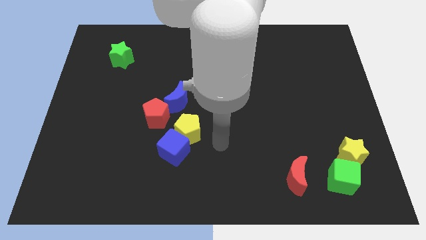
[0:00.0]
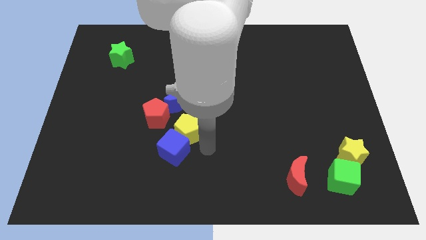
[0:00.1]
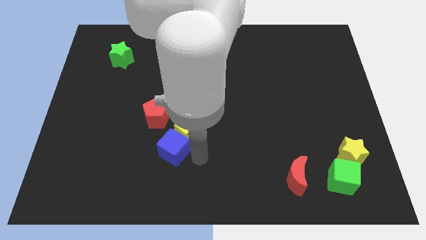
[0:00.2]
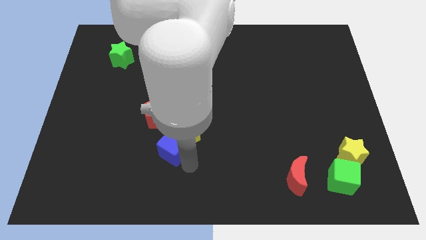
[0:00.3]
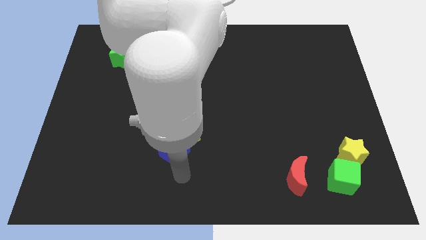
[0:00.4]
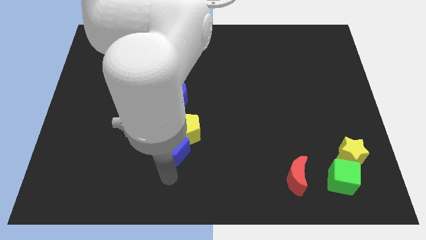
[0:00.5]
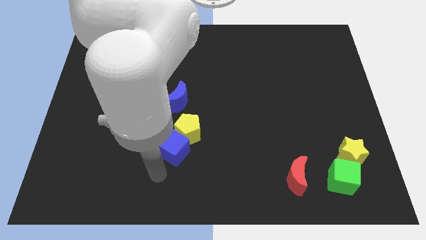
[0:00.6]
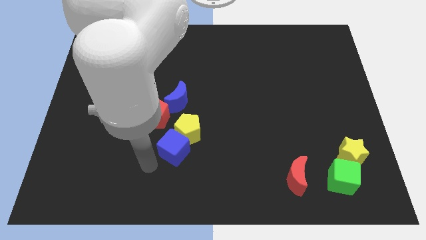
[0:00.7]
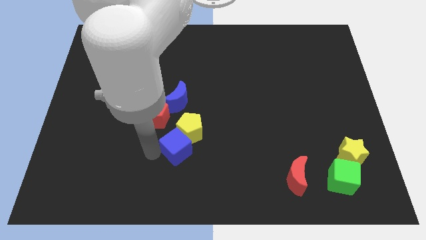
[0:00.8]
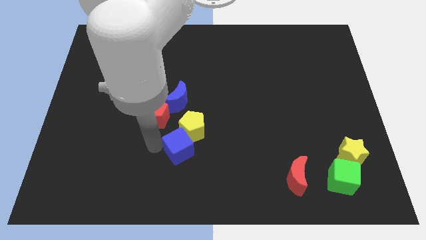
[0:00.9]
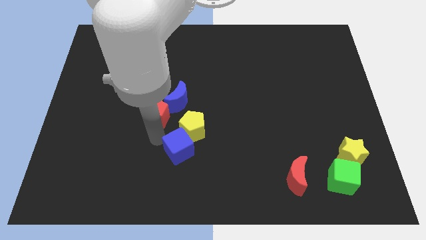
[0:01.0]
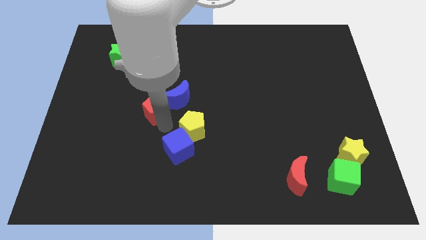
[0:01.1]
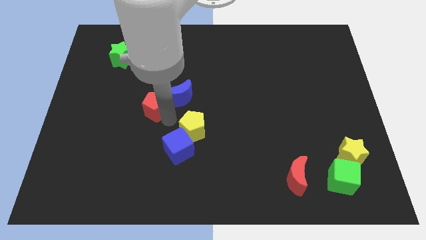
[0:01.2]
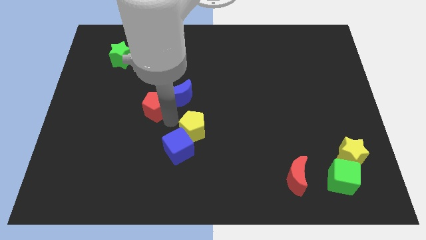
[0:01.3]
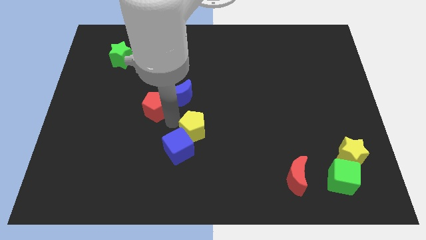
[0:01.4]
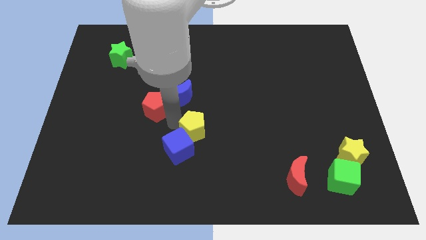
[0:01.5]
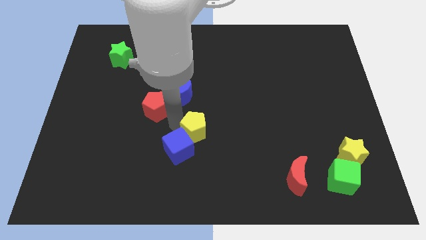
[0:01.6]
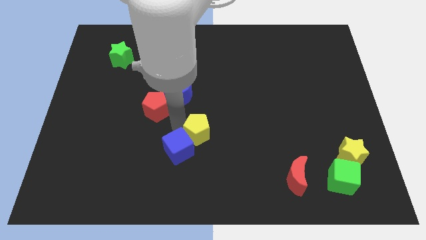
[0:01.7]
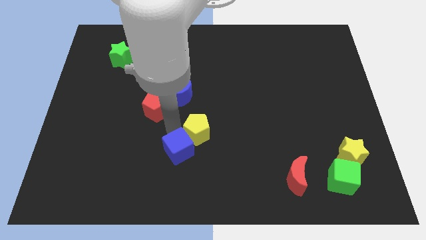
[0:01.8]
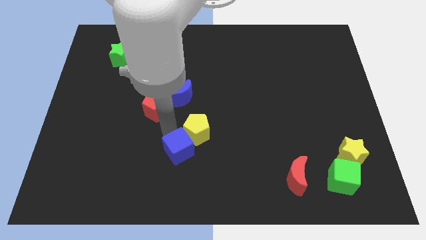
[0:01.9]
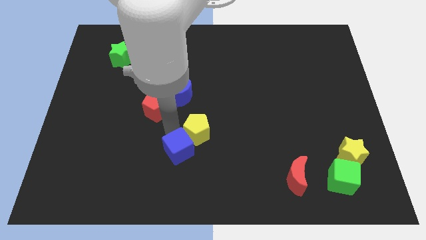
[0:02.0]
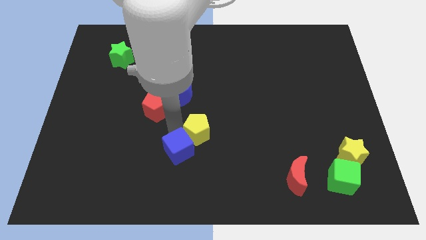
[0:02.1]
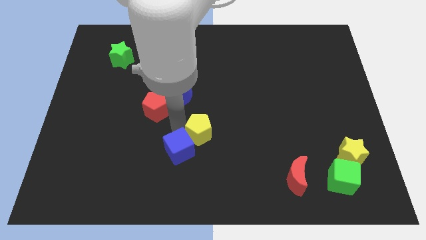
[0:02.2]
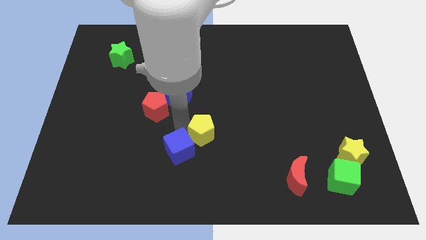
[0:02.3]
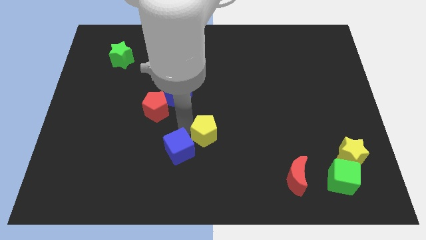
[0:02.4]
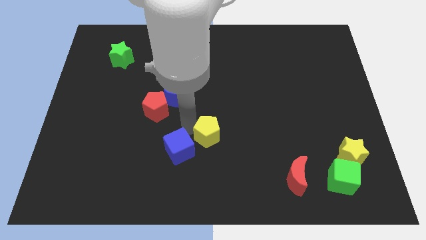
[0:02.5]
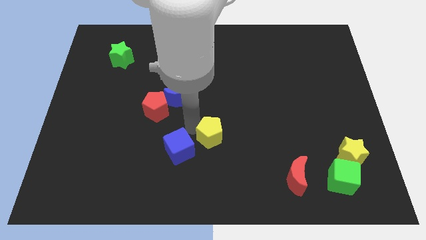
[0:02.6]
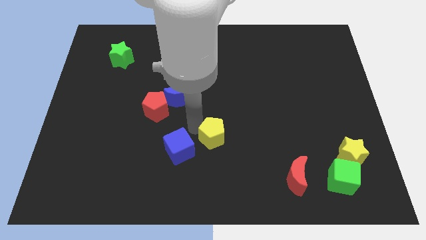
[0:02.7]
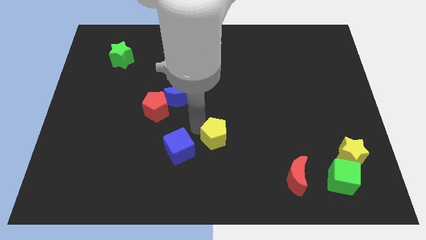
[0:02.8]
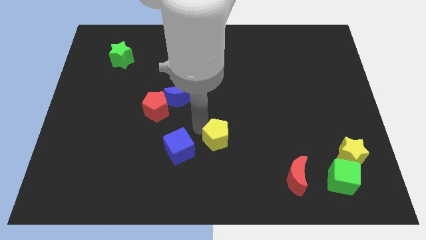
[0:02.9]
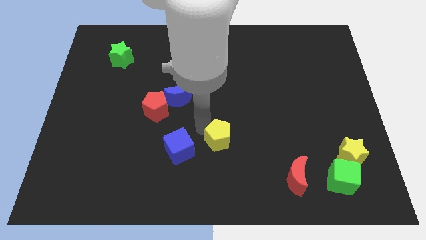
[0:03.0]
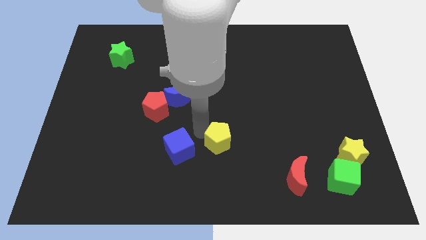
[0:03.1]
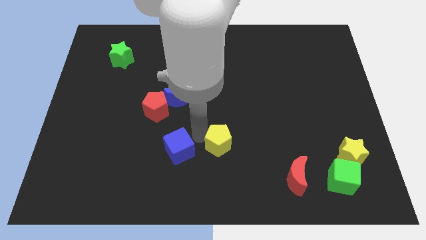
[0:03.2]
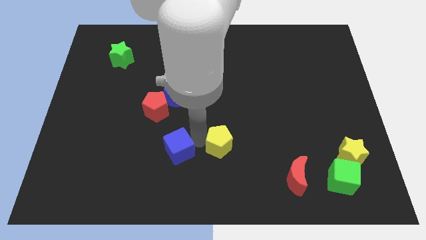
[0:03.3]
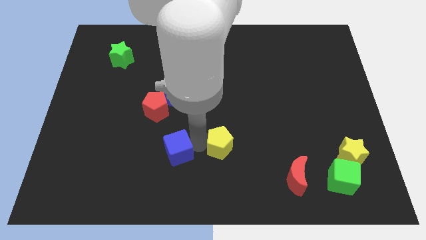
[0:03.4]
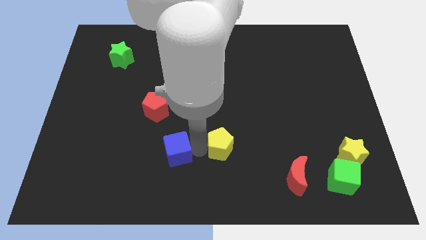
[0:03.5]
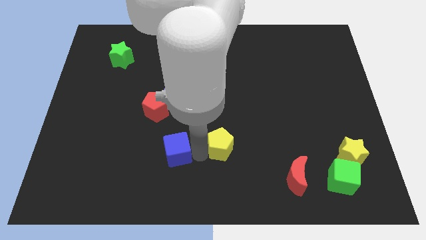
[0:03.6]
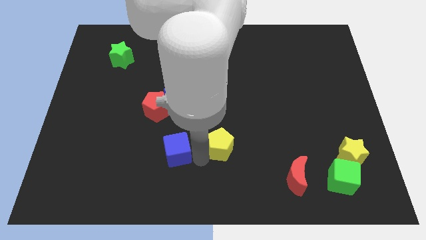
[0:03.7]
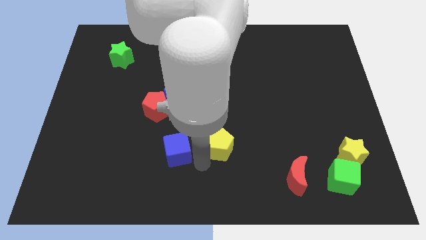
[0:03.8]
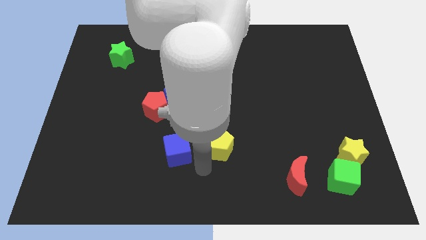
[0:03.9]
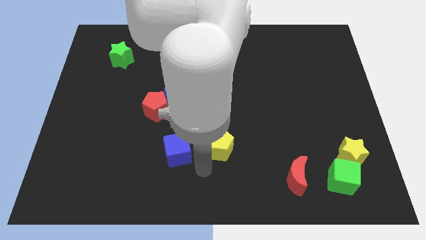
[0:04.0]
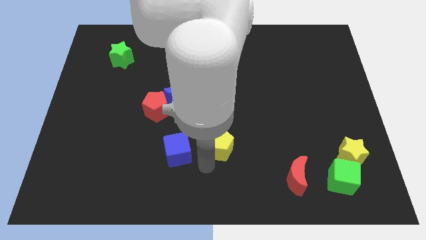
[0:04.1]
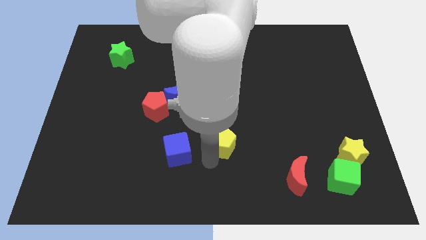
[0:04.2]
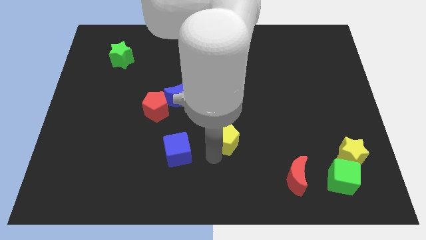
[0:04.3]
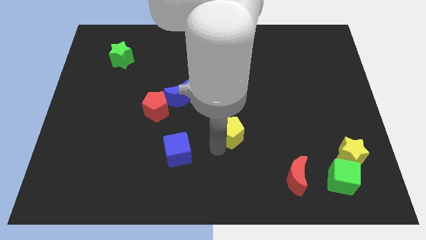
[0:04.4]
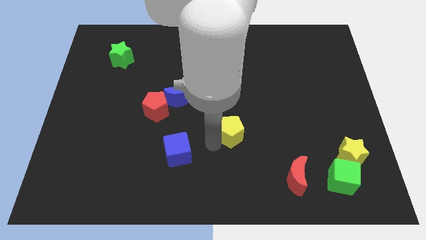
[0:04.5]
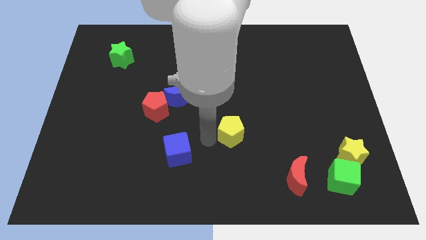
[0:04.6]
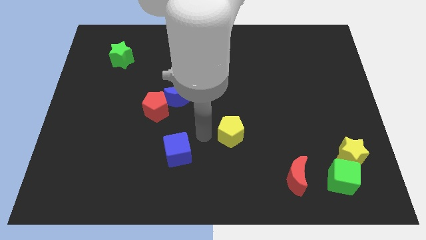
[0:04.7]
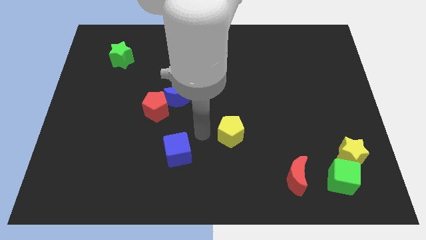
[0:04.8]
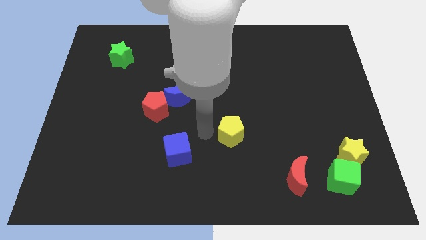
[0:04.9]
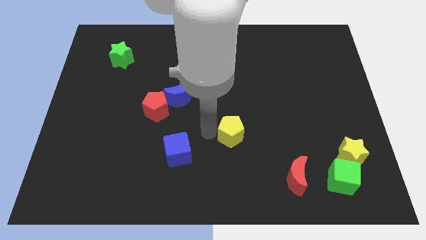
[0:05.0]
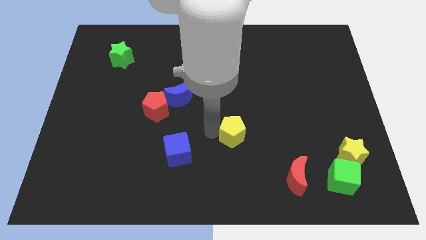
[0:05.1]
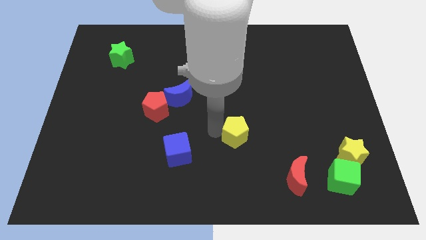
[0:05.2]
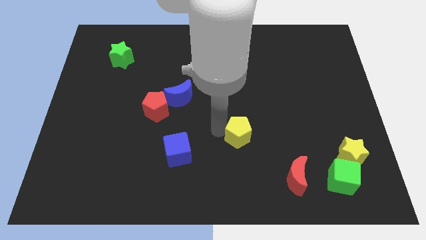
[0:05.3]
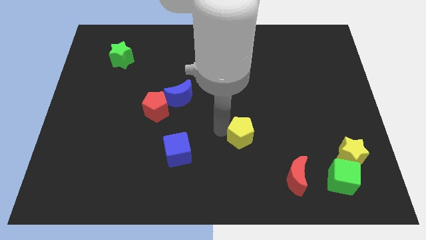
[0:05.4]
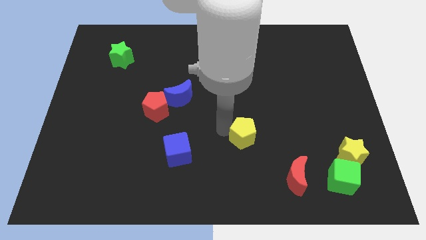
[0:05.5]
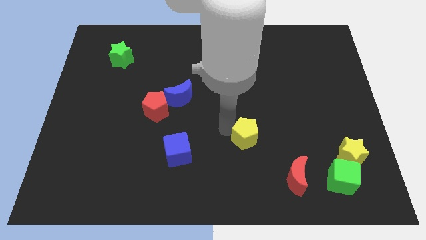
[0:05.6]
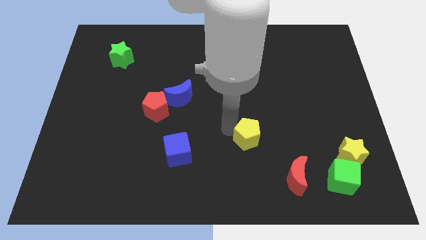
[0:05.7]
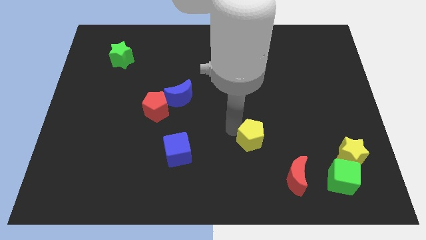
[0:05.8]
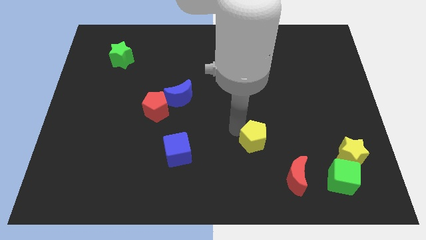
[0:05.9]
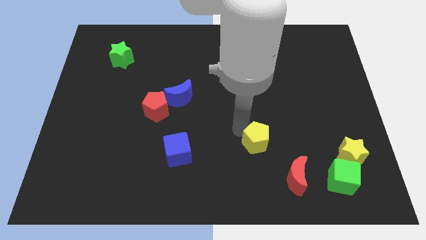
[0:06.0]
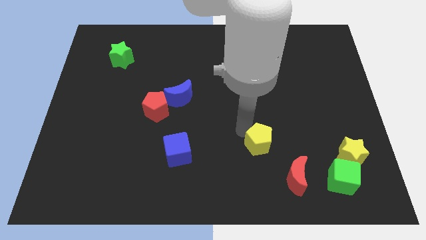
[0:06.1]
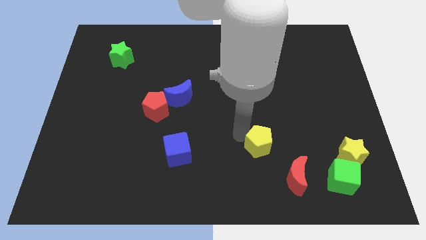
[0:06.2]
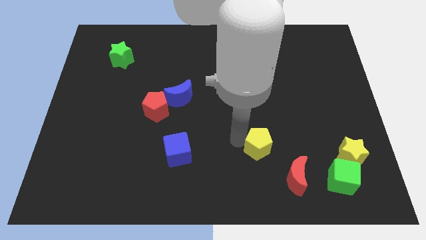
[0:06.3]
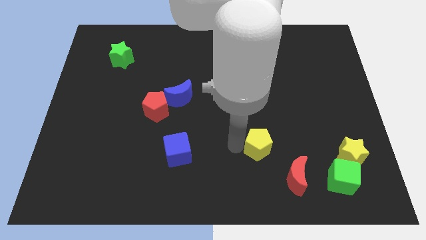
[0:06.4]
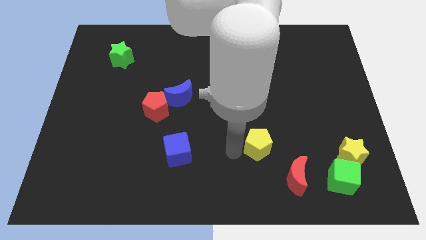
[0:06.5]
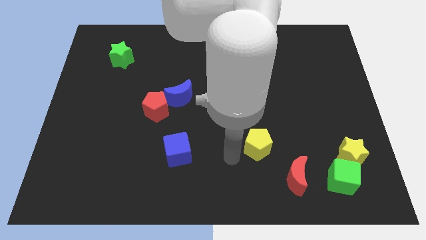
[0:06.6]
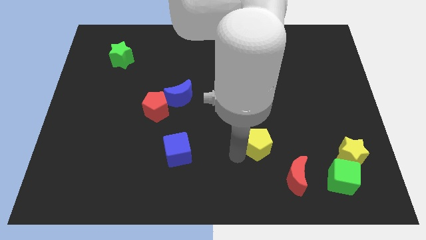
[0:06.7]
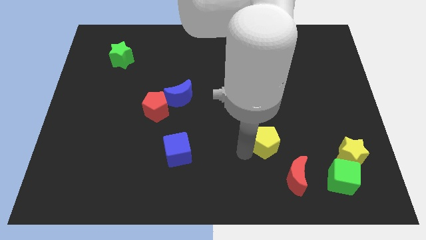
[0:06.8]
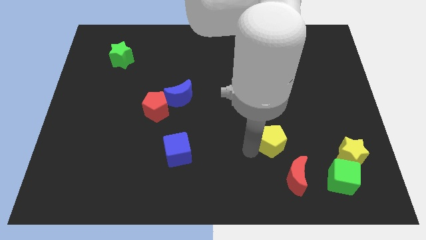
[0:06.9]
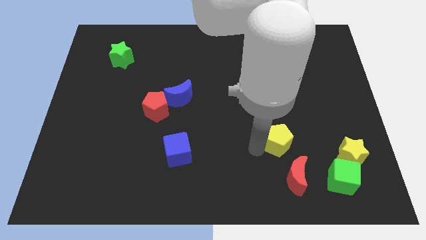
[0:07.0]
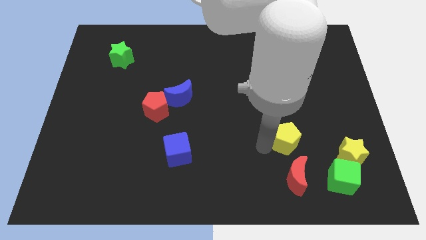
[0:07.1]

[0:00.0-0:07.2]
move the yellow pentagon right

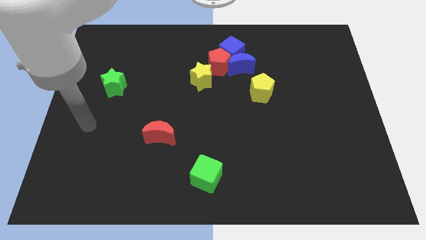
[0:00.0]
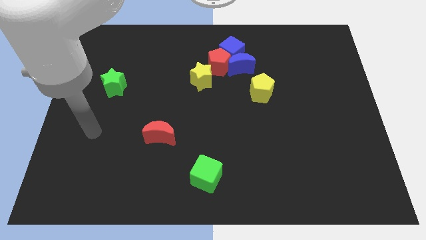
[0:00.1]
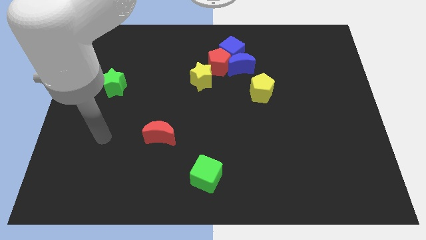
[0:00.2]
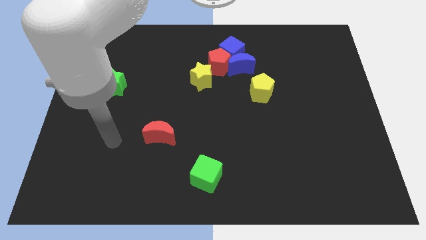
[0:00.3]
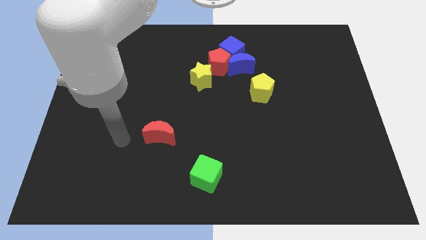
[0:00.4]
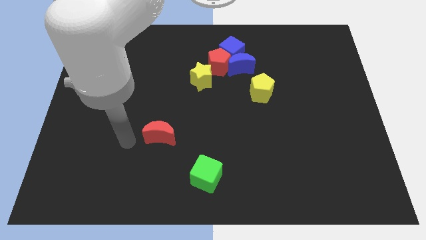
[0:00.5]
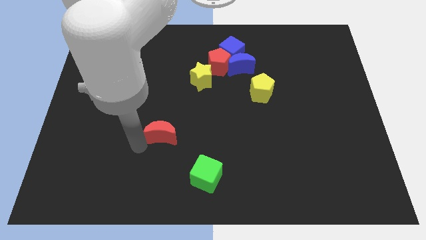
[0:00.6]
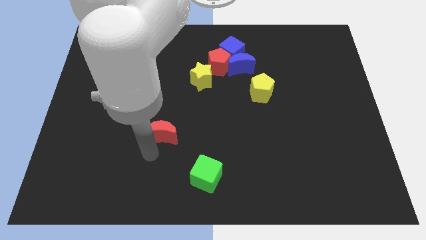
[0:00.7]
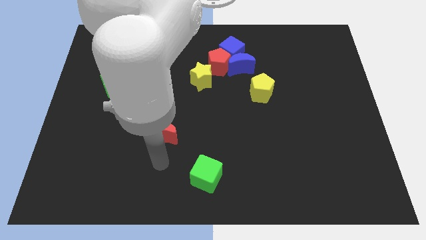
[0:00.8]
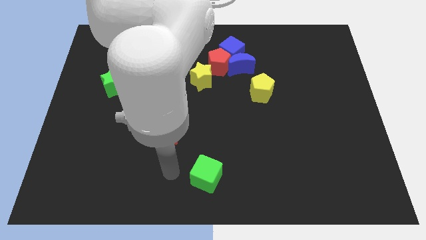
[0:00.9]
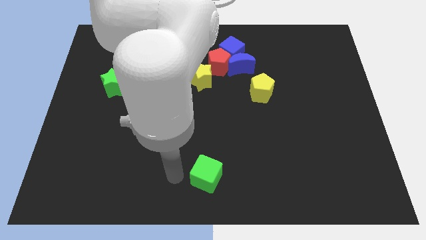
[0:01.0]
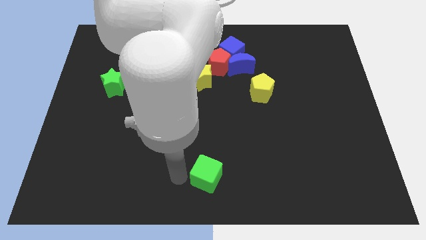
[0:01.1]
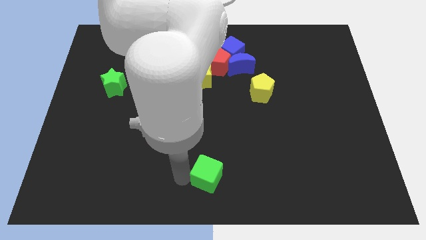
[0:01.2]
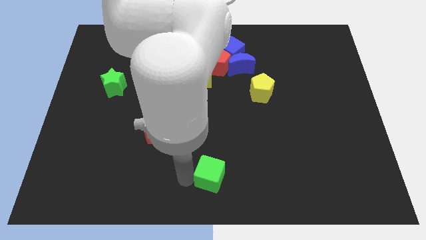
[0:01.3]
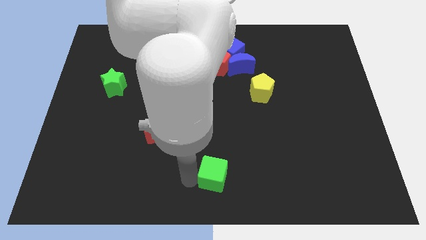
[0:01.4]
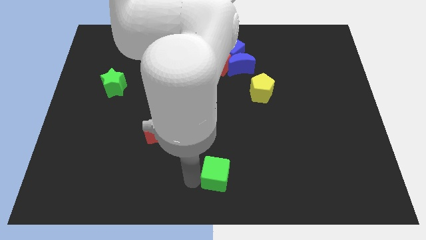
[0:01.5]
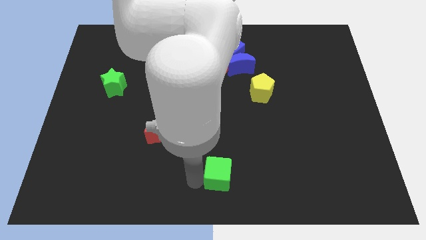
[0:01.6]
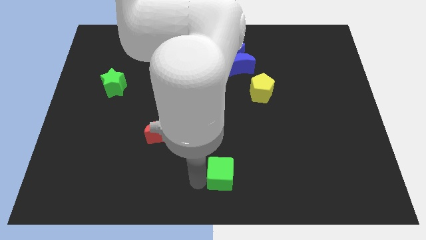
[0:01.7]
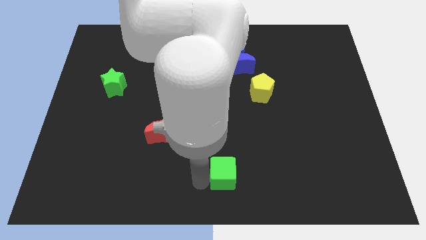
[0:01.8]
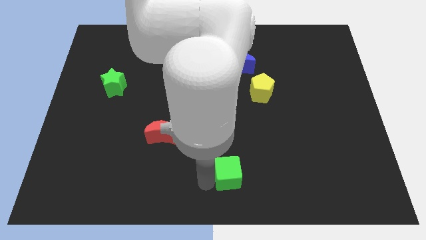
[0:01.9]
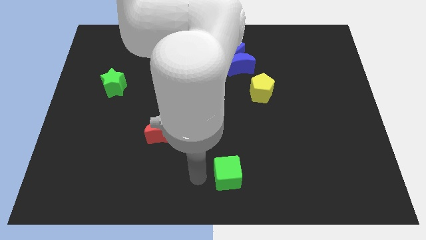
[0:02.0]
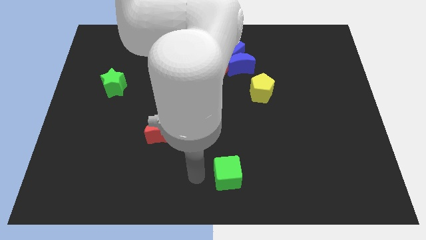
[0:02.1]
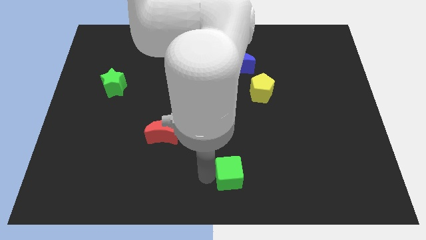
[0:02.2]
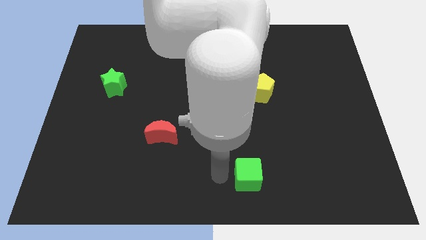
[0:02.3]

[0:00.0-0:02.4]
slightly slide the green cube to the right
